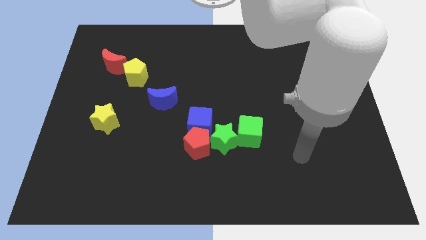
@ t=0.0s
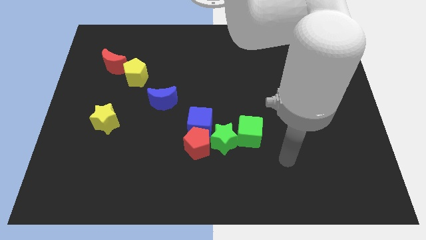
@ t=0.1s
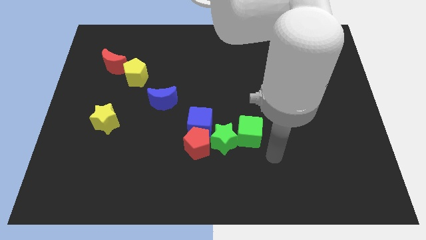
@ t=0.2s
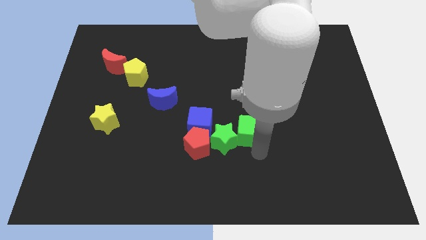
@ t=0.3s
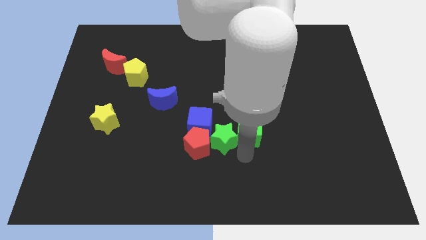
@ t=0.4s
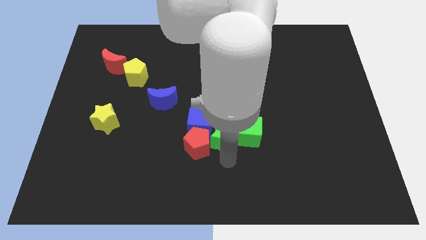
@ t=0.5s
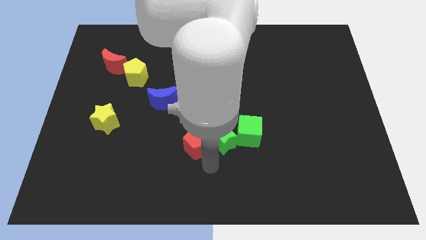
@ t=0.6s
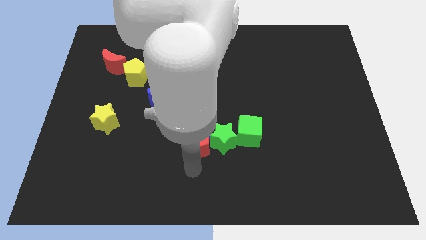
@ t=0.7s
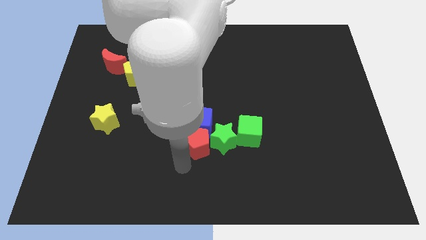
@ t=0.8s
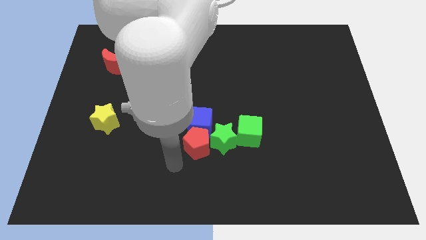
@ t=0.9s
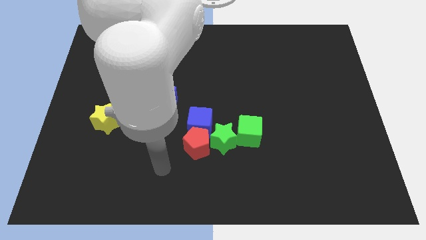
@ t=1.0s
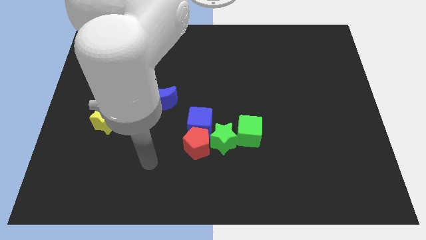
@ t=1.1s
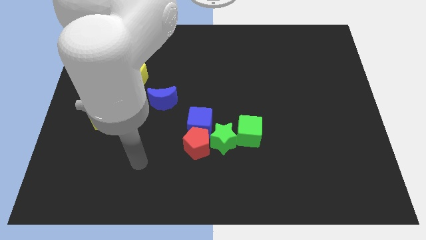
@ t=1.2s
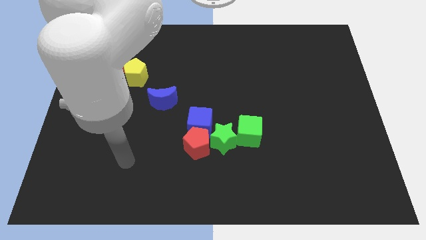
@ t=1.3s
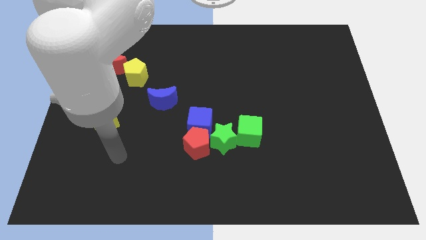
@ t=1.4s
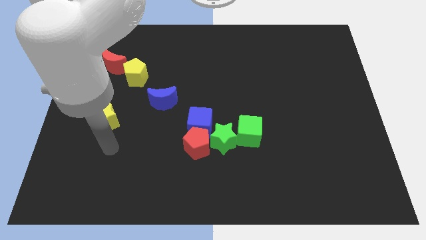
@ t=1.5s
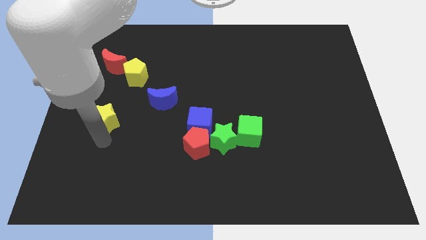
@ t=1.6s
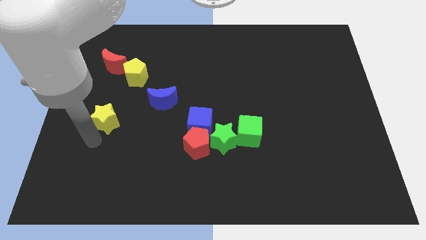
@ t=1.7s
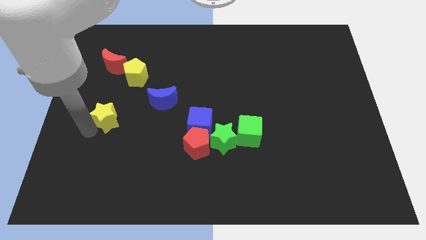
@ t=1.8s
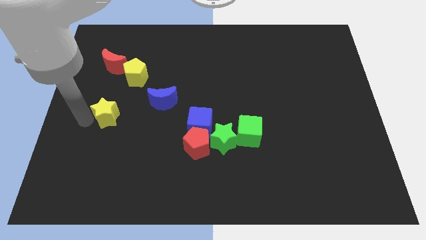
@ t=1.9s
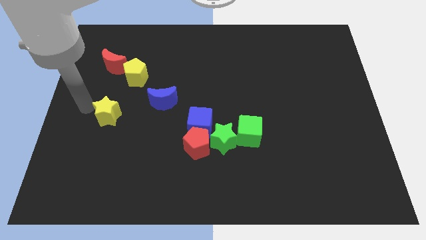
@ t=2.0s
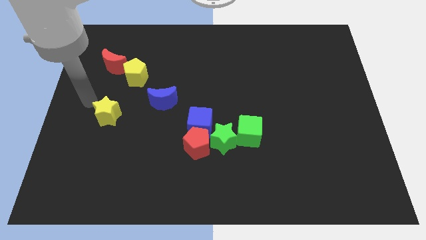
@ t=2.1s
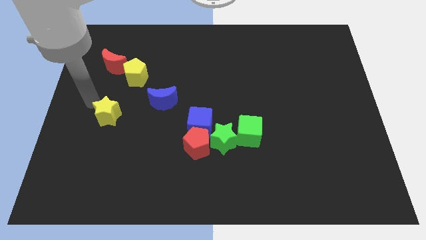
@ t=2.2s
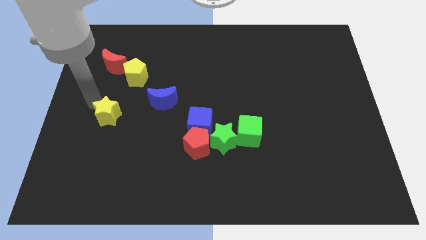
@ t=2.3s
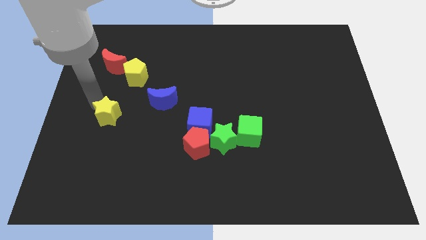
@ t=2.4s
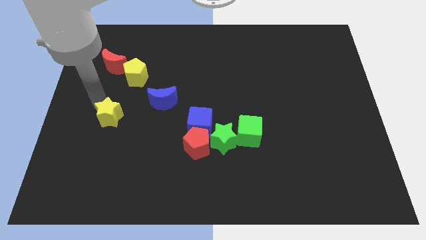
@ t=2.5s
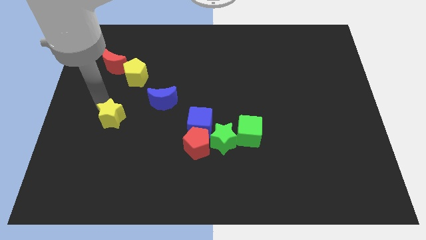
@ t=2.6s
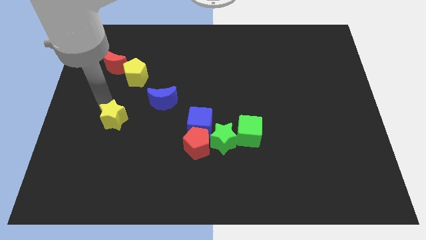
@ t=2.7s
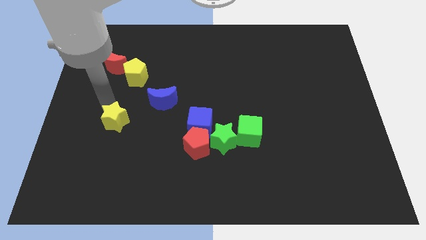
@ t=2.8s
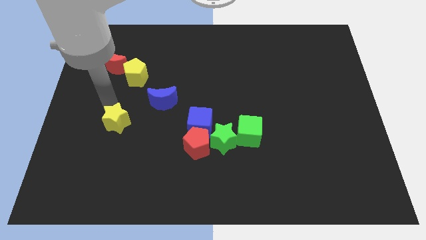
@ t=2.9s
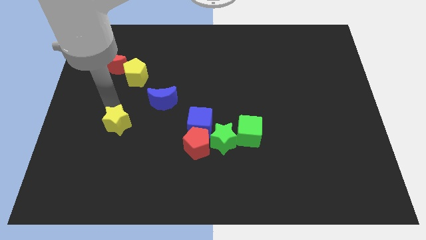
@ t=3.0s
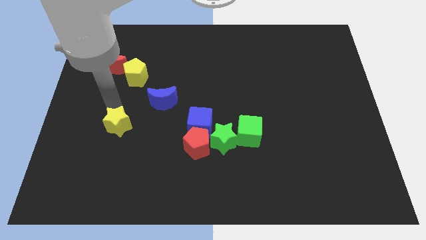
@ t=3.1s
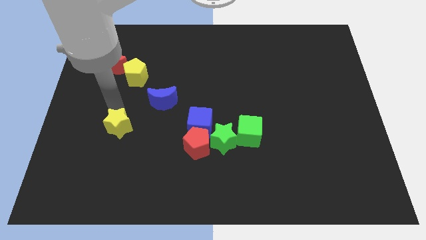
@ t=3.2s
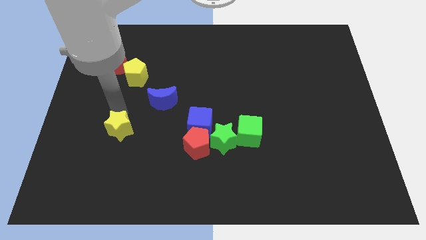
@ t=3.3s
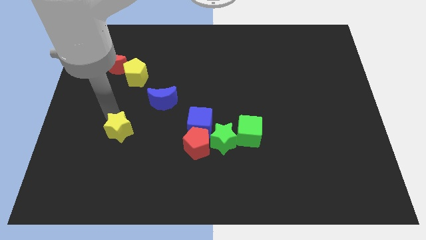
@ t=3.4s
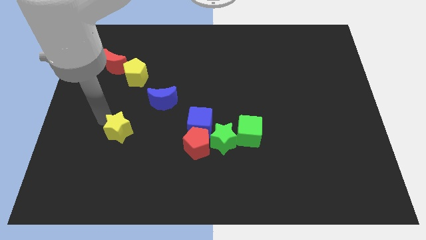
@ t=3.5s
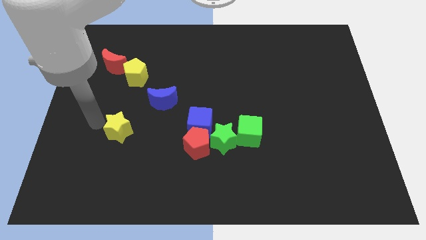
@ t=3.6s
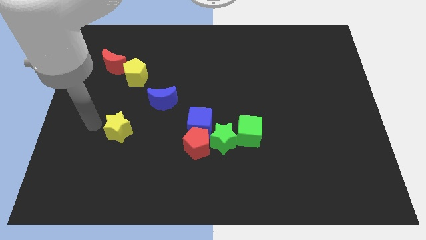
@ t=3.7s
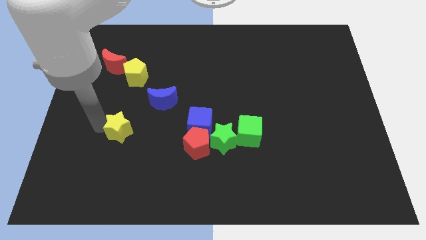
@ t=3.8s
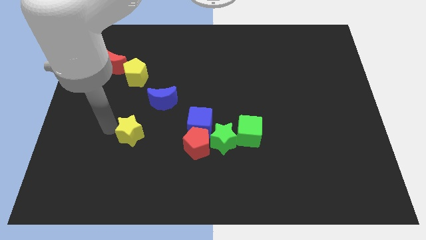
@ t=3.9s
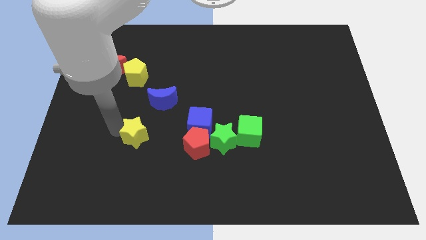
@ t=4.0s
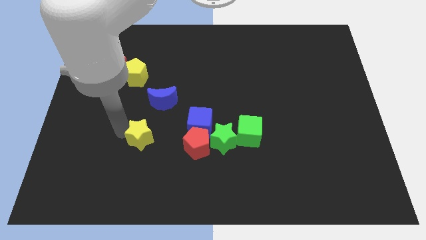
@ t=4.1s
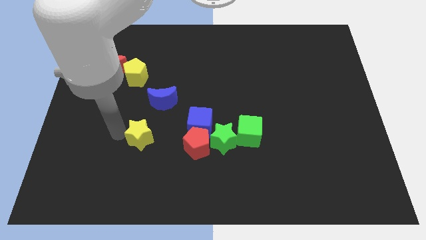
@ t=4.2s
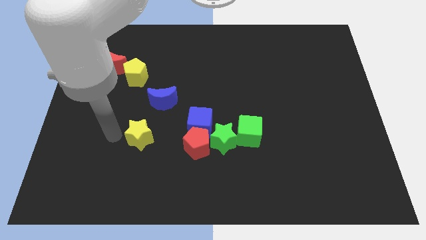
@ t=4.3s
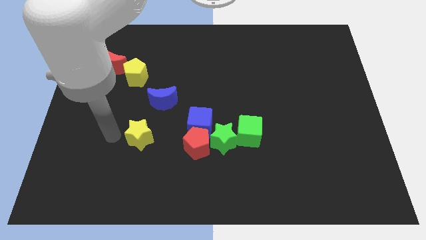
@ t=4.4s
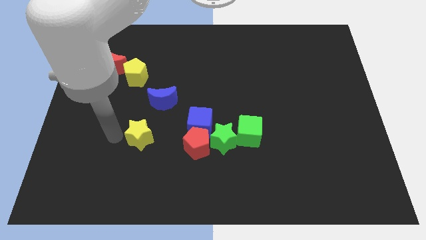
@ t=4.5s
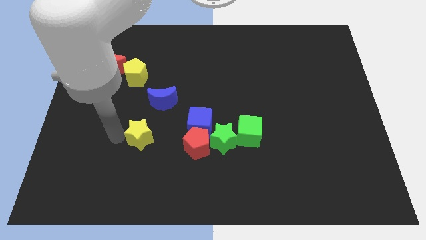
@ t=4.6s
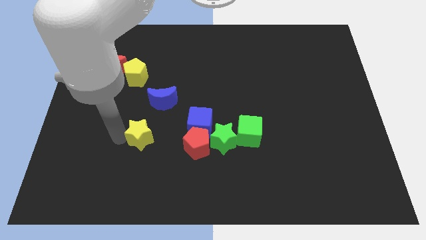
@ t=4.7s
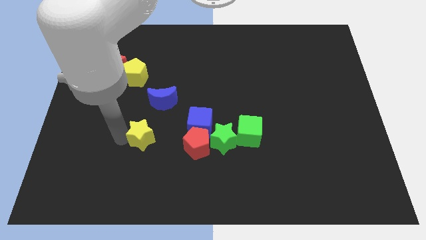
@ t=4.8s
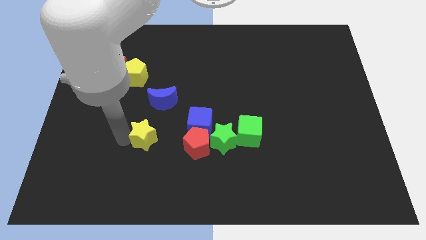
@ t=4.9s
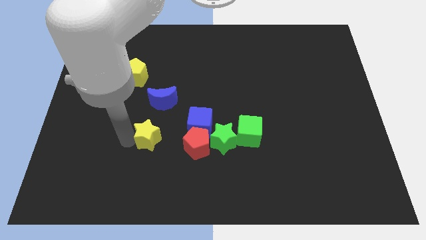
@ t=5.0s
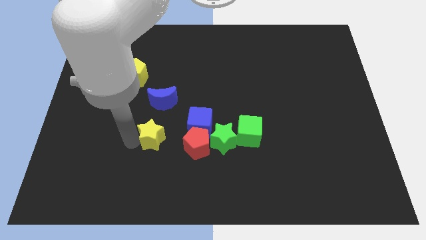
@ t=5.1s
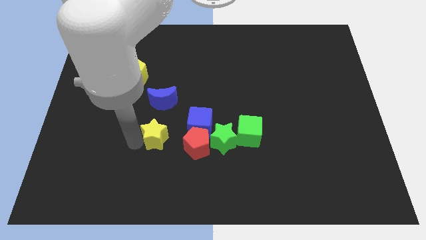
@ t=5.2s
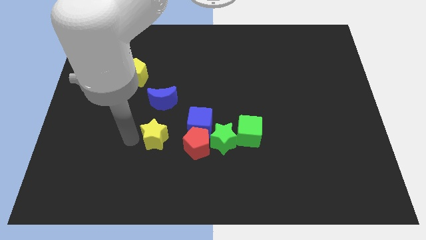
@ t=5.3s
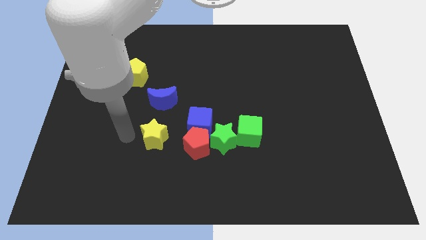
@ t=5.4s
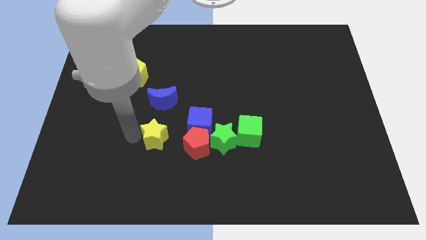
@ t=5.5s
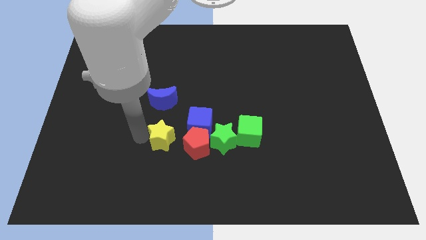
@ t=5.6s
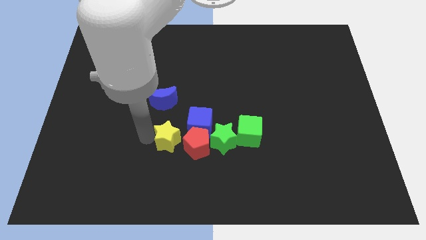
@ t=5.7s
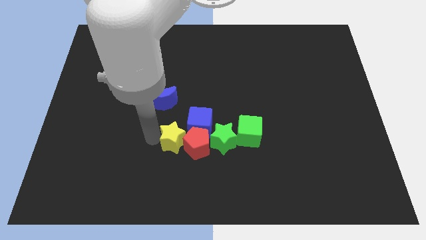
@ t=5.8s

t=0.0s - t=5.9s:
slide the yellow star close to the red pentagon
